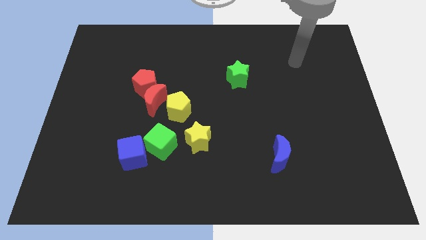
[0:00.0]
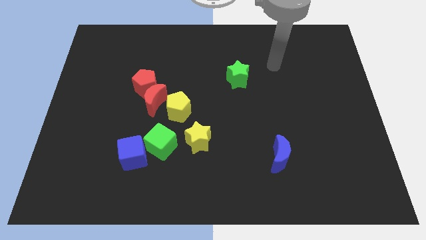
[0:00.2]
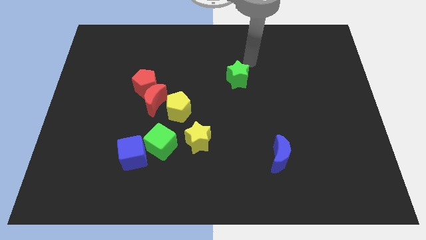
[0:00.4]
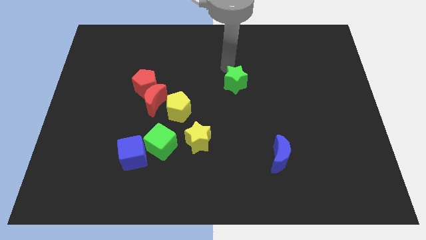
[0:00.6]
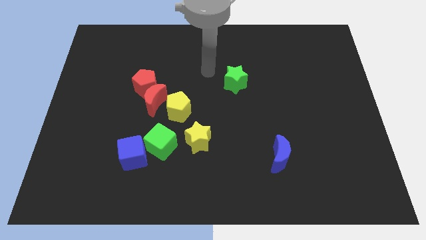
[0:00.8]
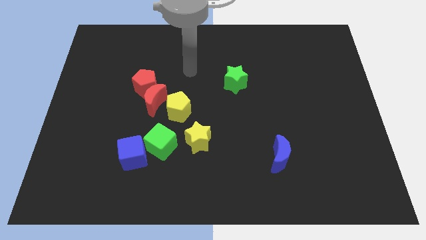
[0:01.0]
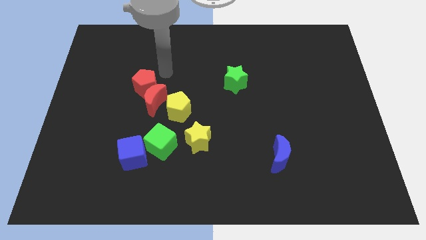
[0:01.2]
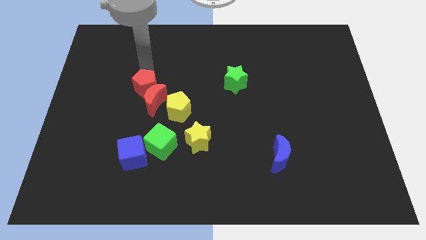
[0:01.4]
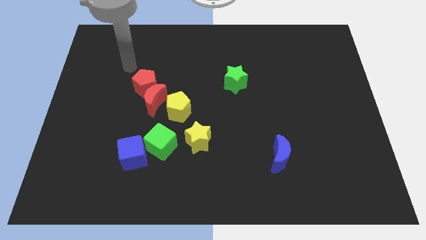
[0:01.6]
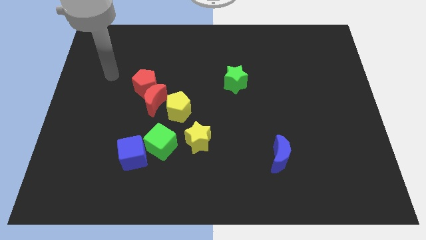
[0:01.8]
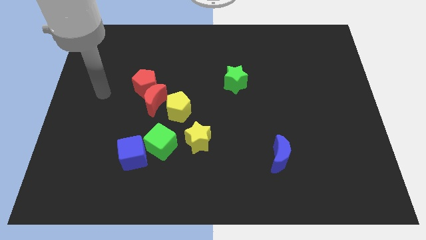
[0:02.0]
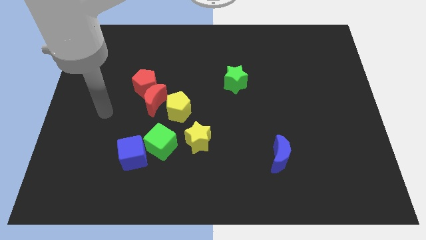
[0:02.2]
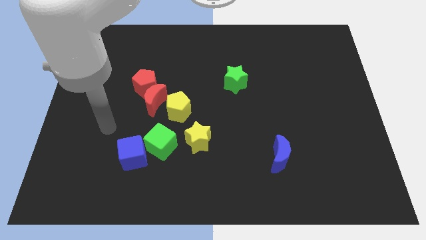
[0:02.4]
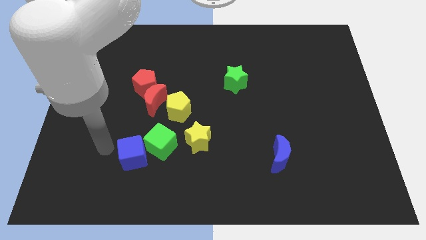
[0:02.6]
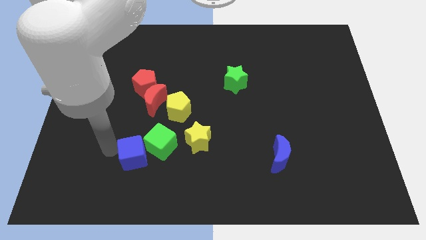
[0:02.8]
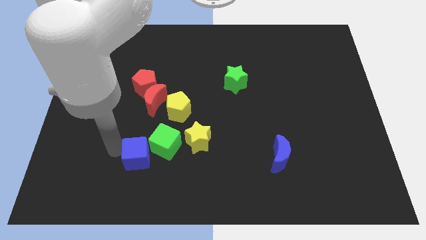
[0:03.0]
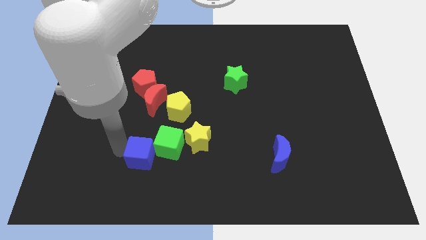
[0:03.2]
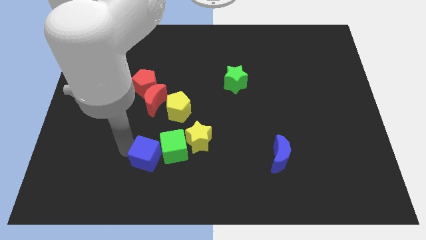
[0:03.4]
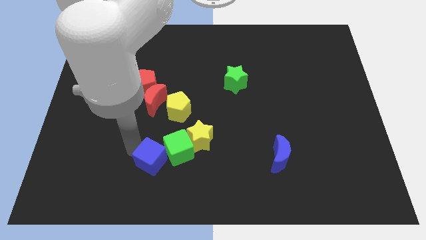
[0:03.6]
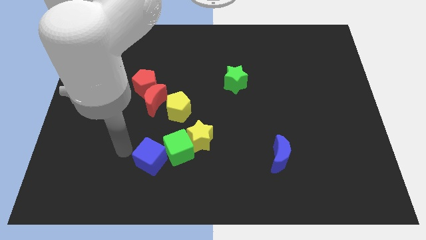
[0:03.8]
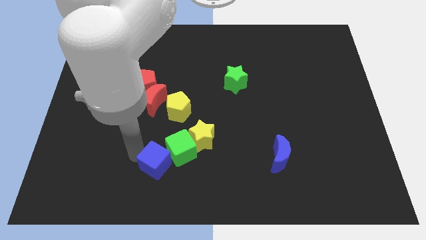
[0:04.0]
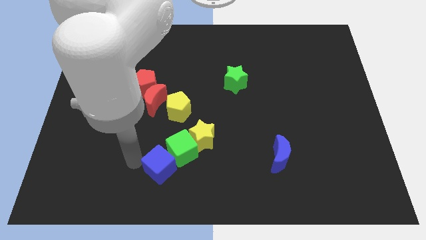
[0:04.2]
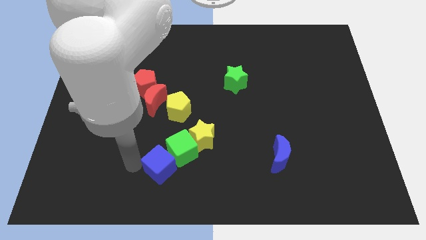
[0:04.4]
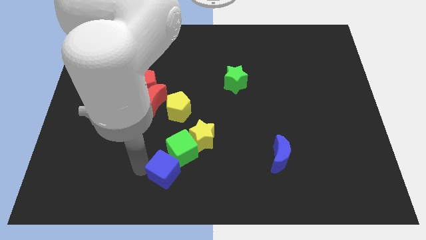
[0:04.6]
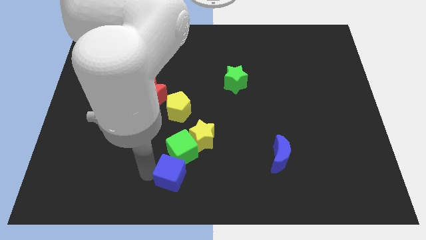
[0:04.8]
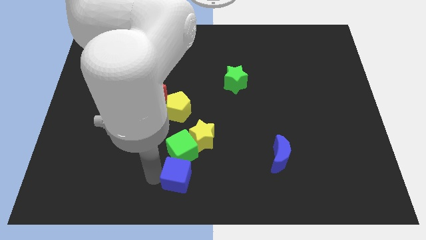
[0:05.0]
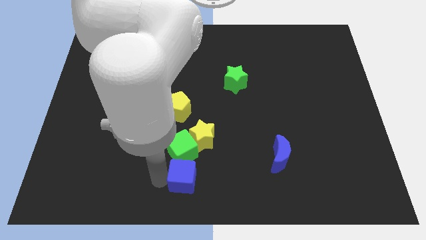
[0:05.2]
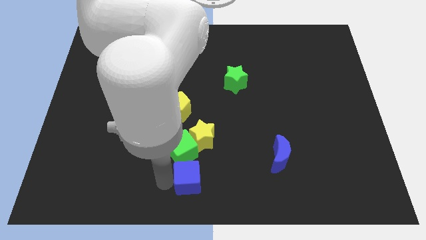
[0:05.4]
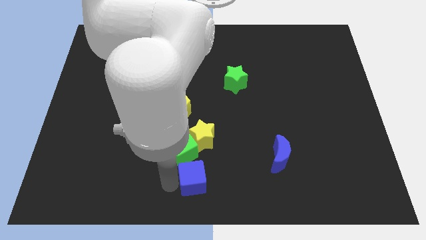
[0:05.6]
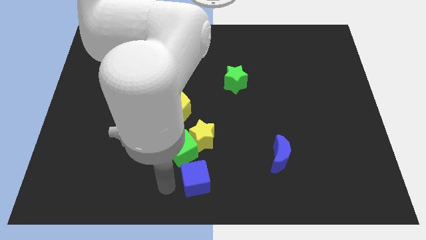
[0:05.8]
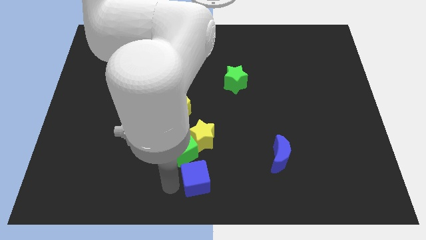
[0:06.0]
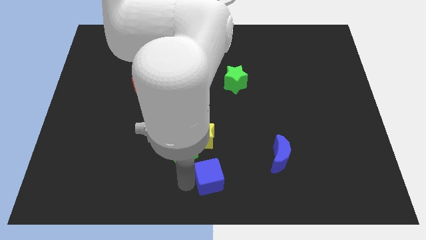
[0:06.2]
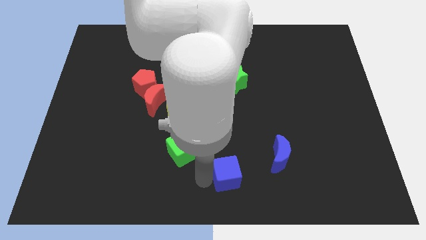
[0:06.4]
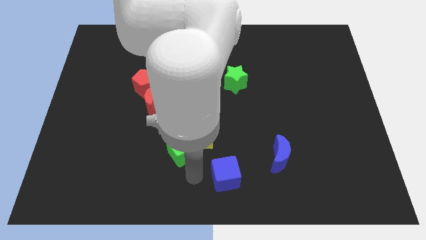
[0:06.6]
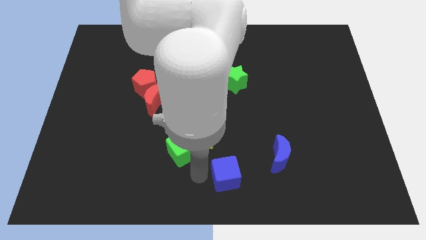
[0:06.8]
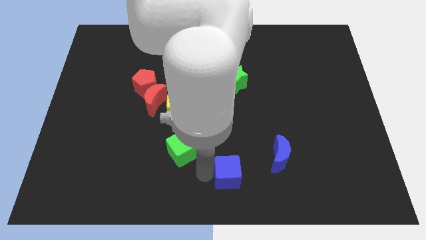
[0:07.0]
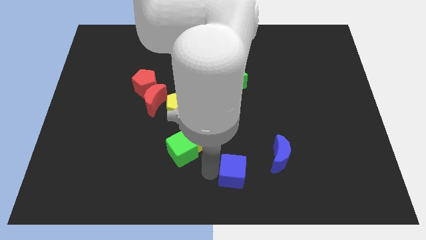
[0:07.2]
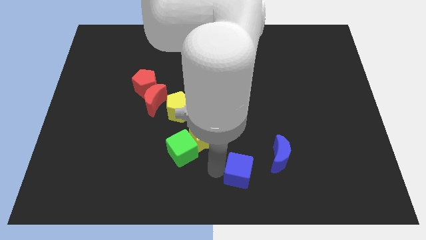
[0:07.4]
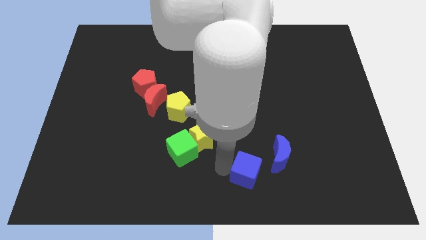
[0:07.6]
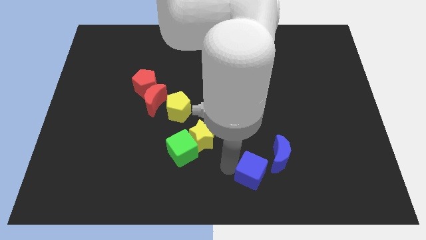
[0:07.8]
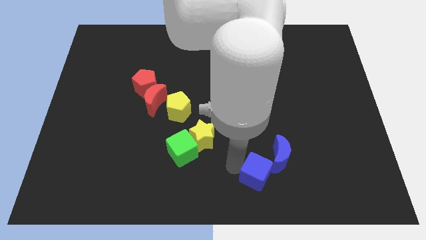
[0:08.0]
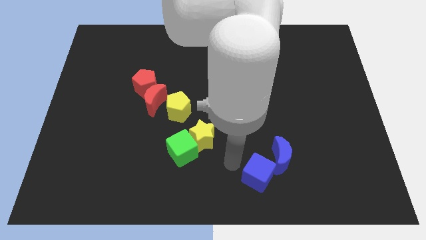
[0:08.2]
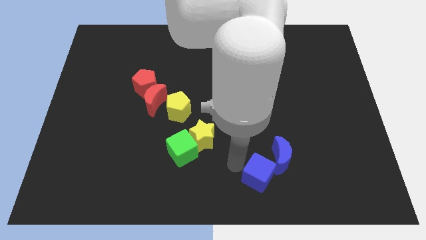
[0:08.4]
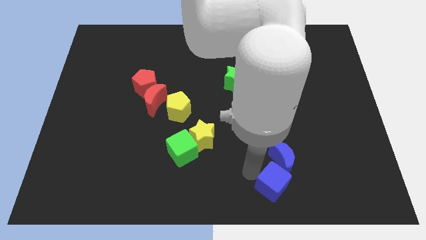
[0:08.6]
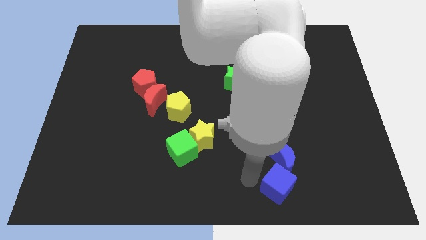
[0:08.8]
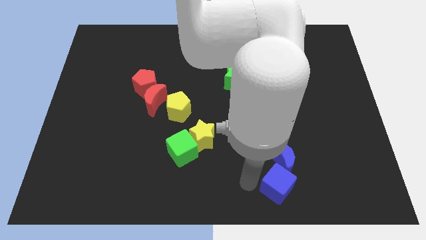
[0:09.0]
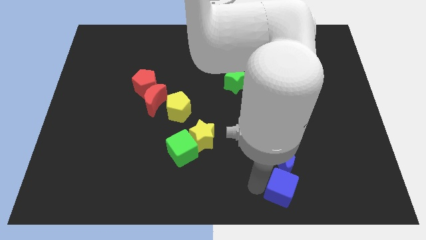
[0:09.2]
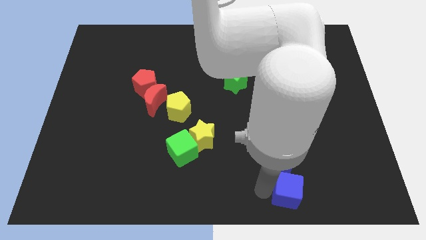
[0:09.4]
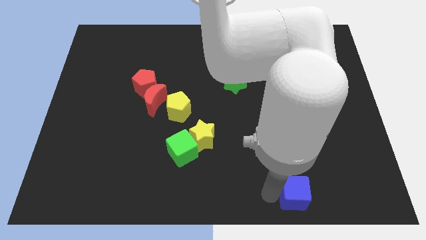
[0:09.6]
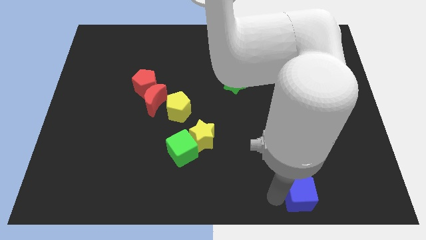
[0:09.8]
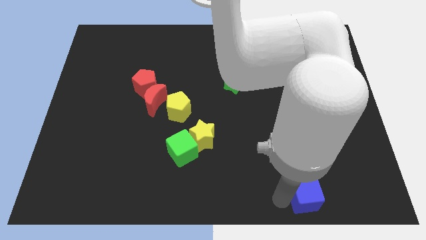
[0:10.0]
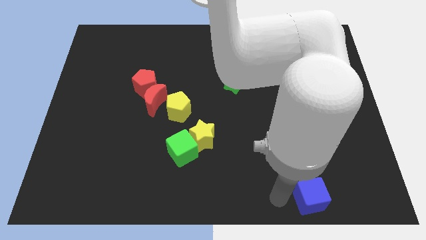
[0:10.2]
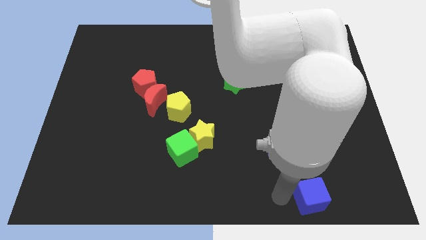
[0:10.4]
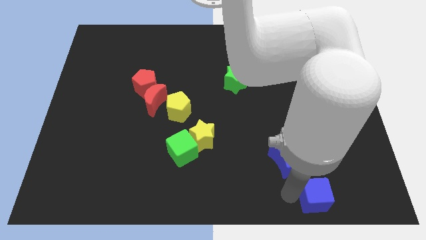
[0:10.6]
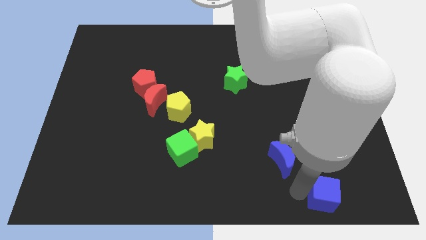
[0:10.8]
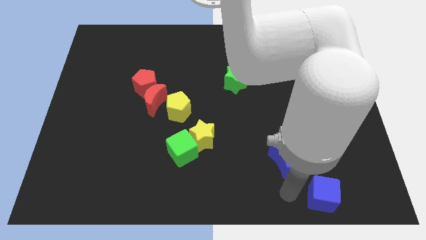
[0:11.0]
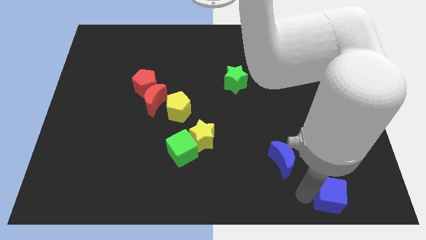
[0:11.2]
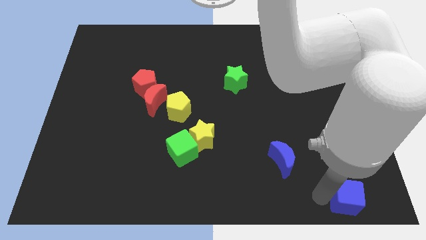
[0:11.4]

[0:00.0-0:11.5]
put the blue cube to the bottom right of the board

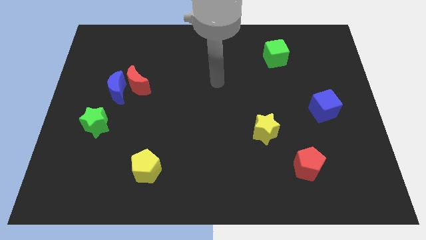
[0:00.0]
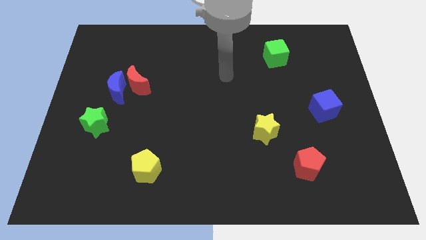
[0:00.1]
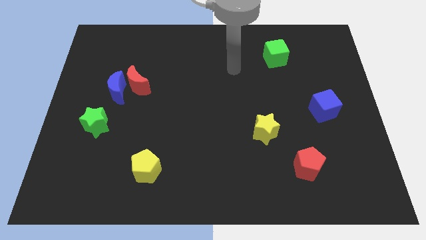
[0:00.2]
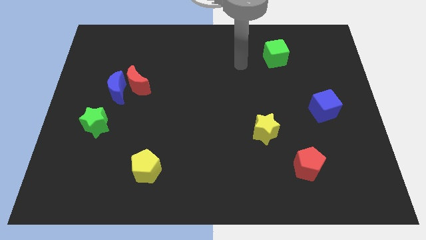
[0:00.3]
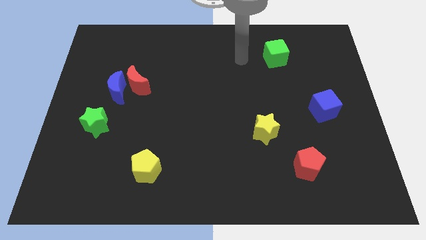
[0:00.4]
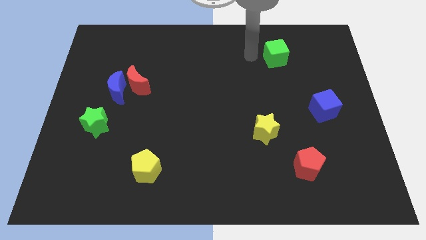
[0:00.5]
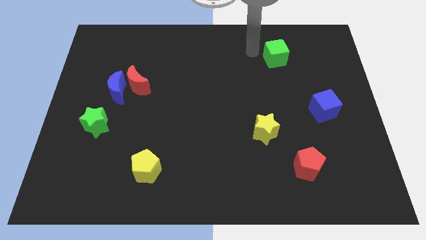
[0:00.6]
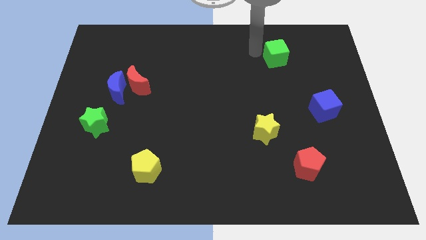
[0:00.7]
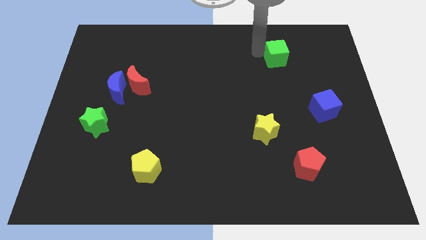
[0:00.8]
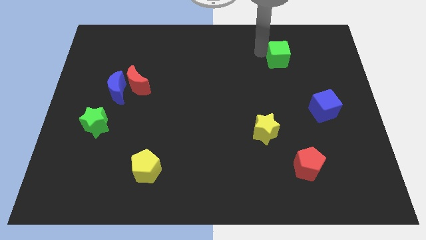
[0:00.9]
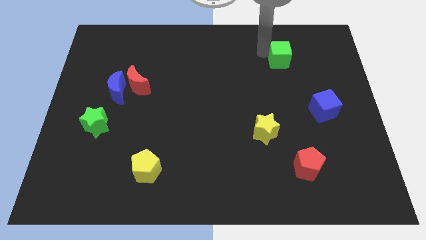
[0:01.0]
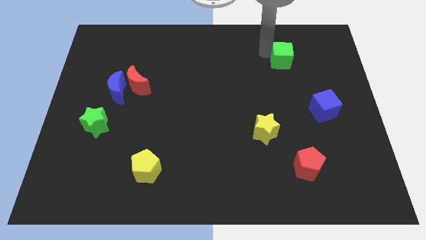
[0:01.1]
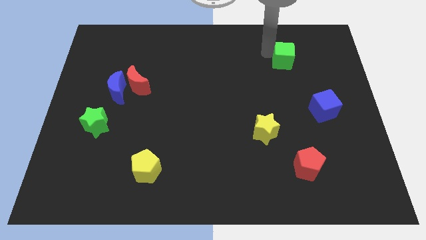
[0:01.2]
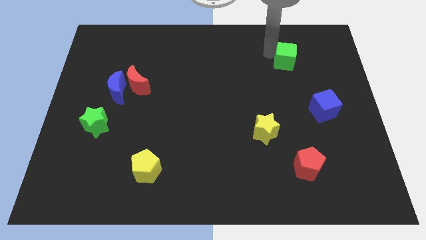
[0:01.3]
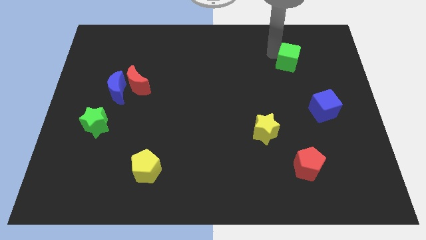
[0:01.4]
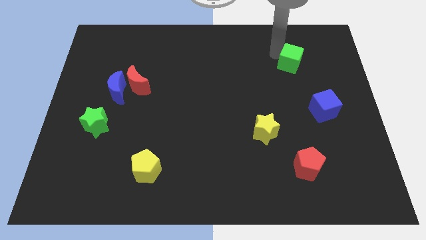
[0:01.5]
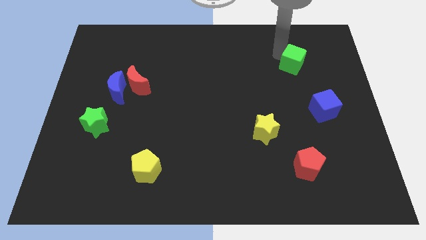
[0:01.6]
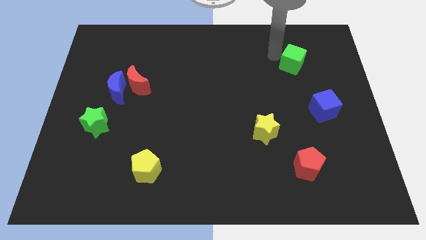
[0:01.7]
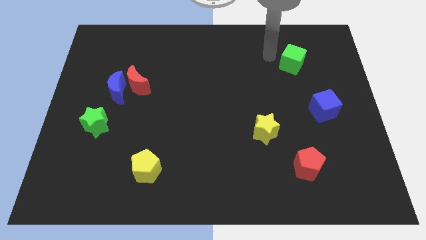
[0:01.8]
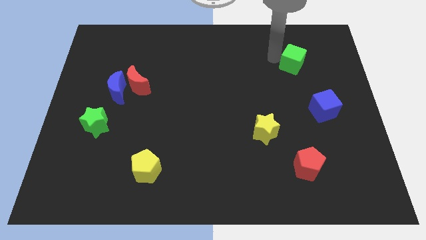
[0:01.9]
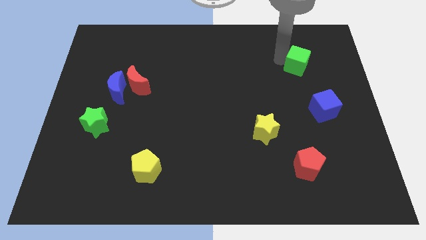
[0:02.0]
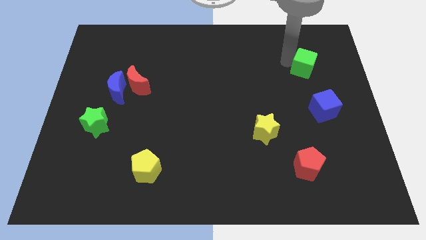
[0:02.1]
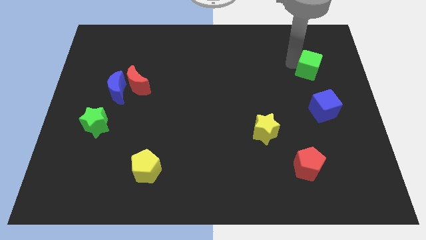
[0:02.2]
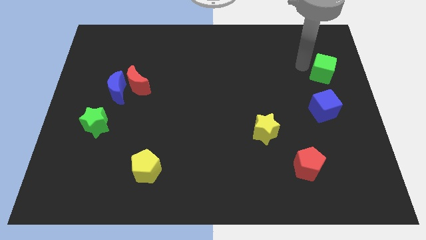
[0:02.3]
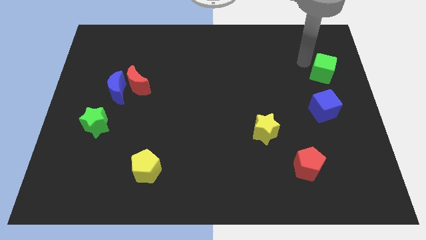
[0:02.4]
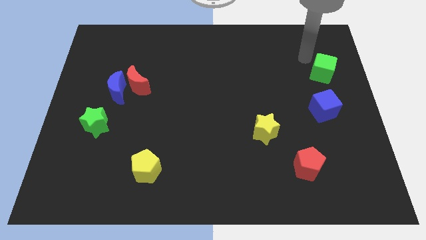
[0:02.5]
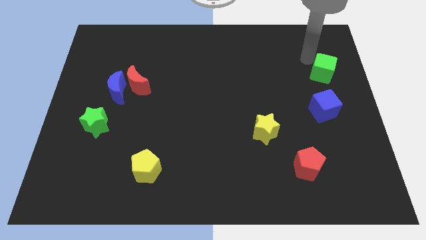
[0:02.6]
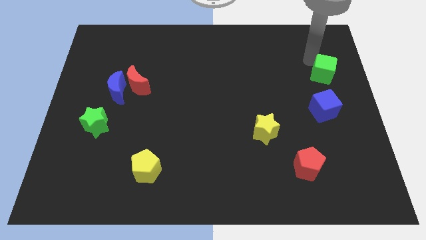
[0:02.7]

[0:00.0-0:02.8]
push the green cube to the right side of the board
